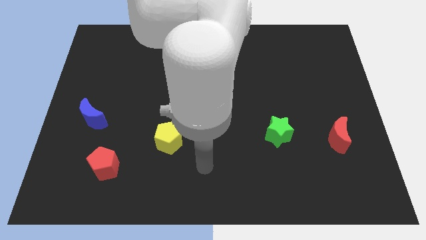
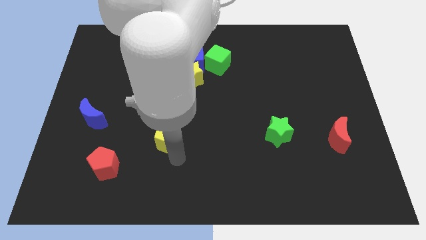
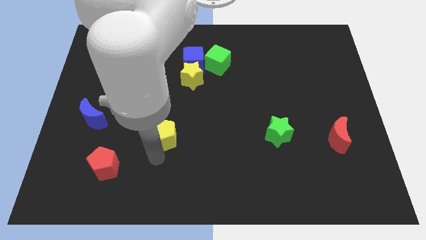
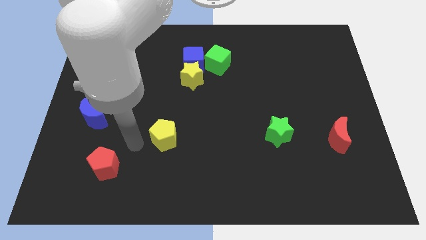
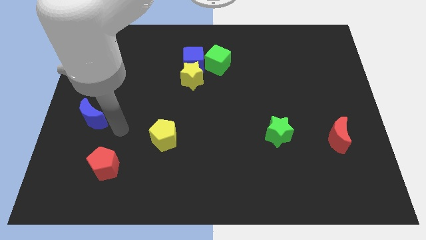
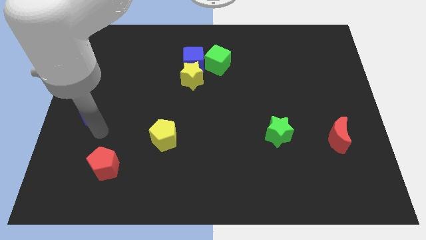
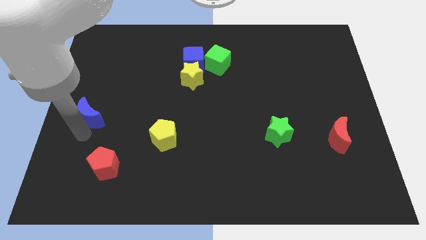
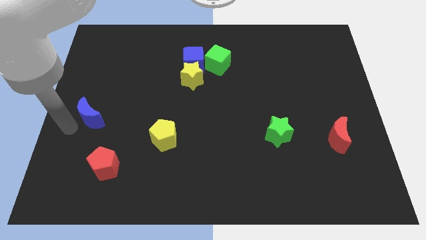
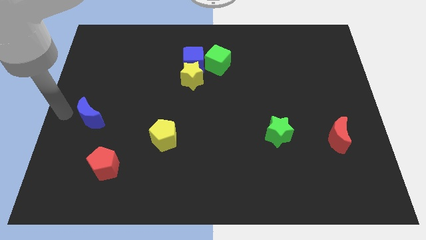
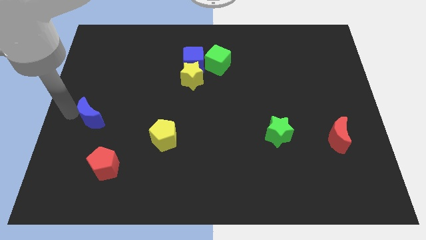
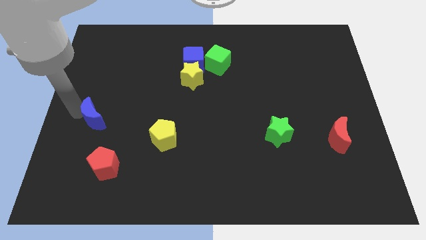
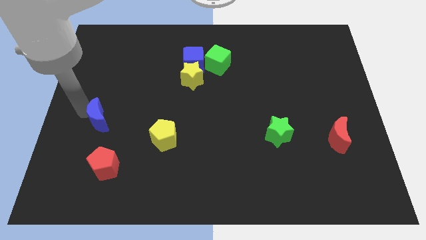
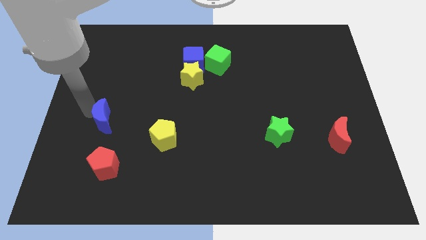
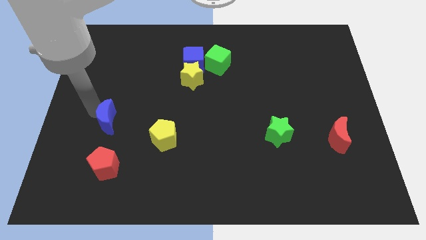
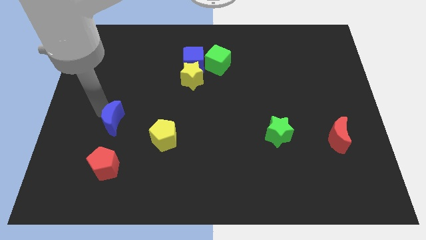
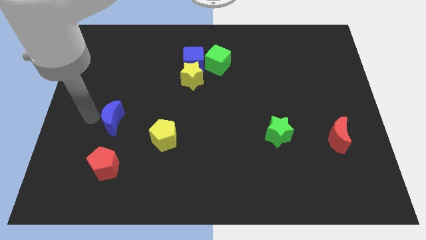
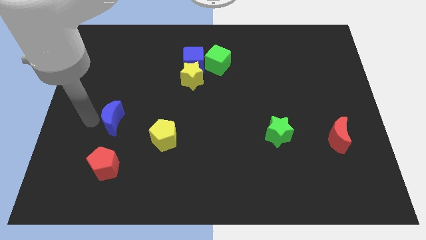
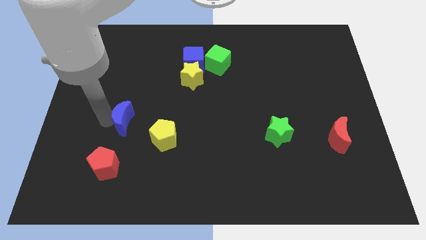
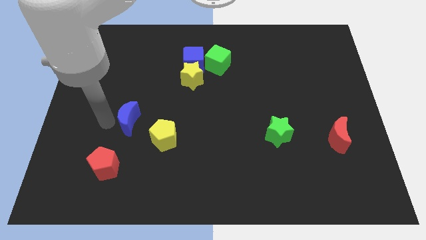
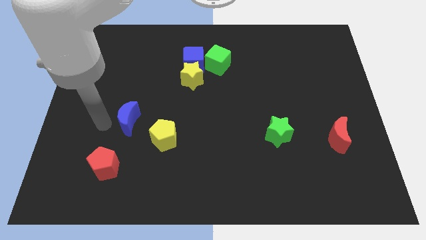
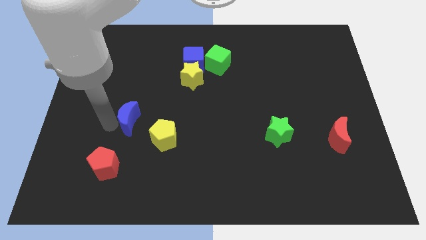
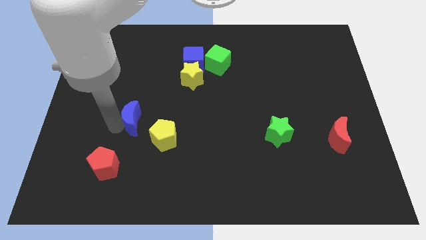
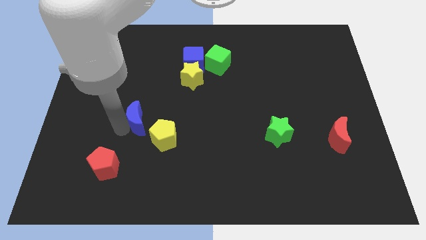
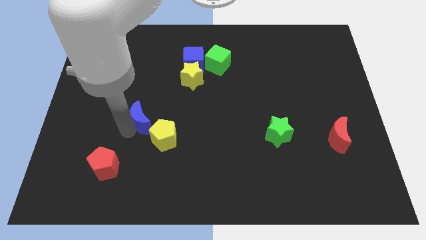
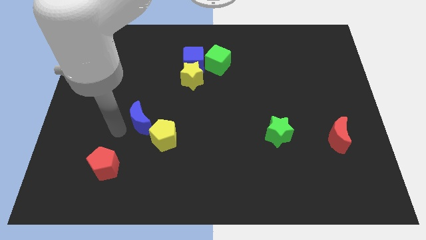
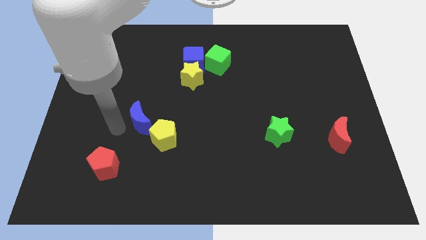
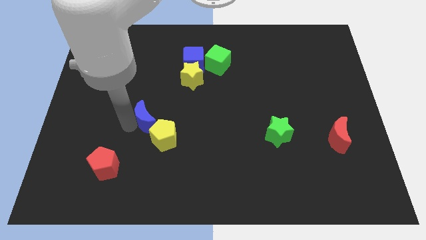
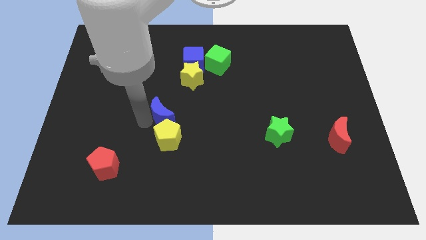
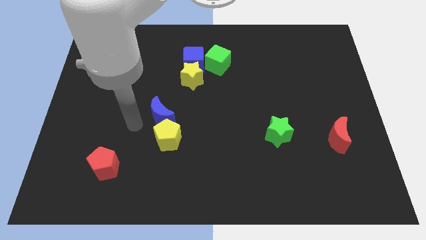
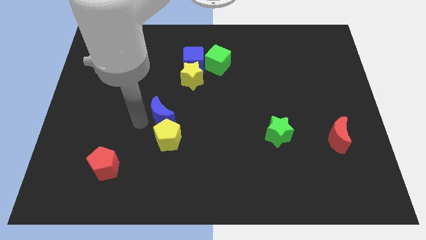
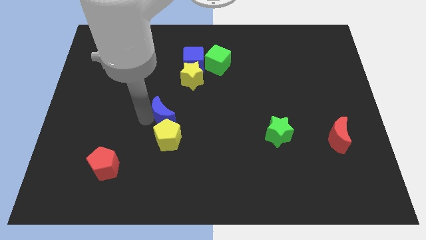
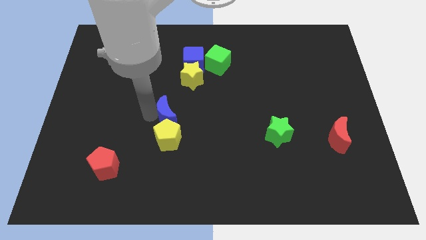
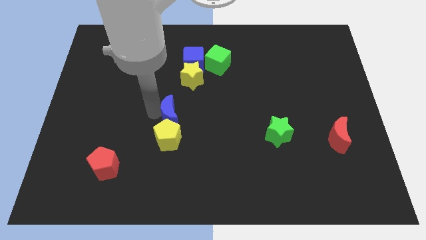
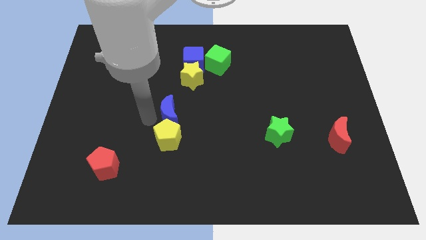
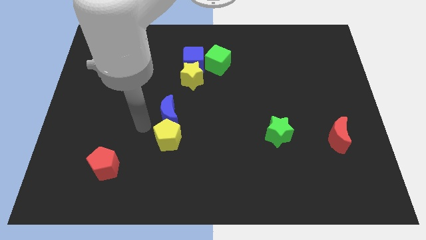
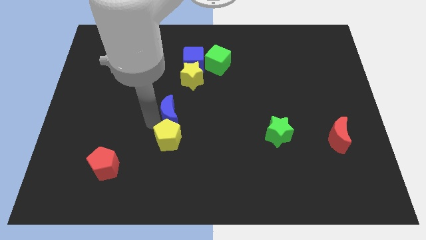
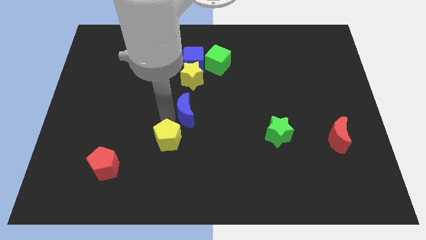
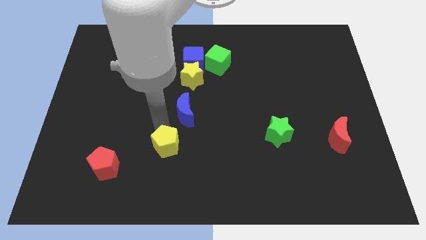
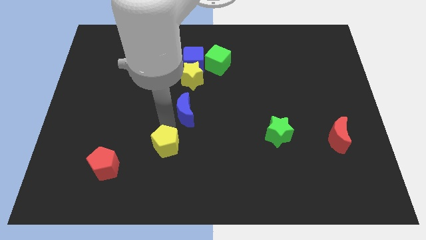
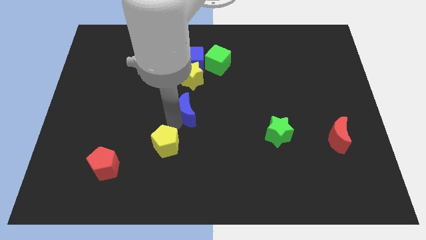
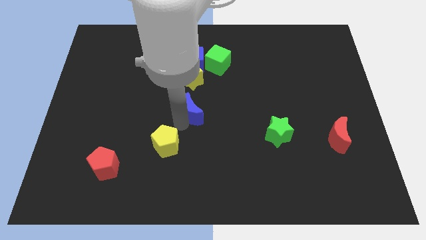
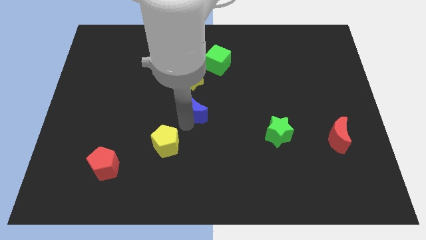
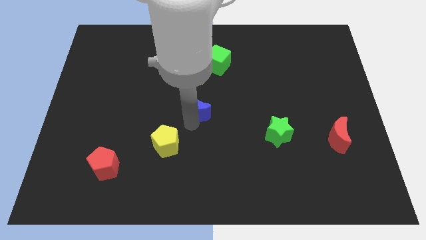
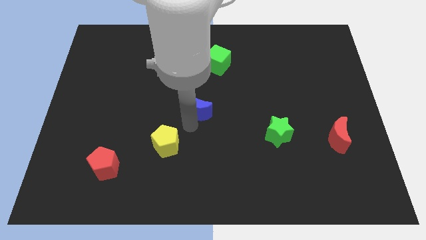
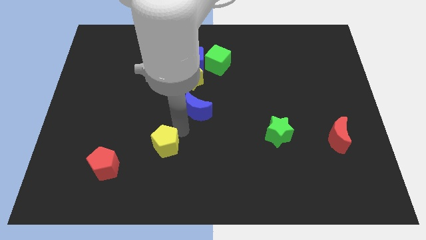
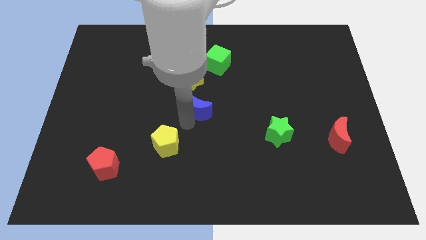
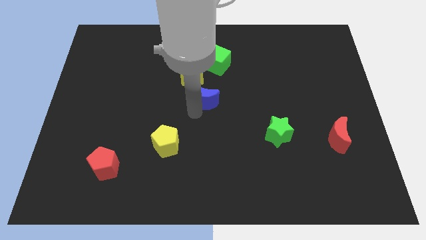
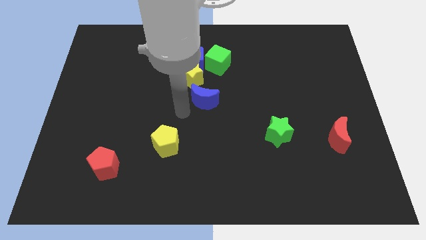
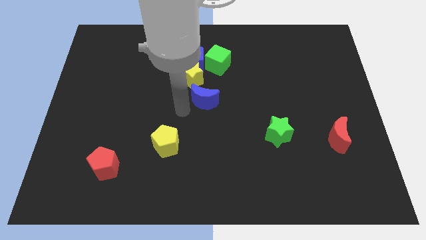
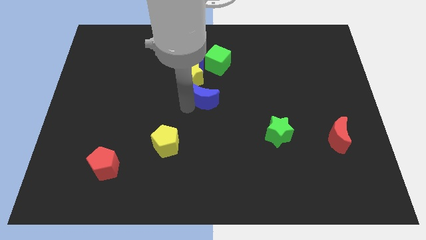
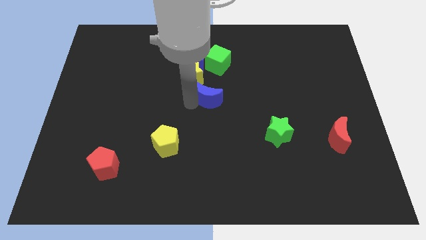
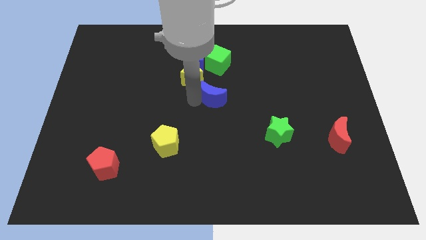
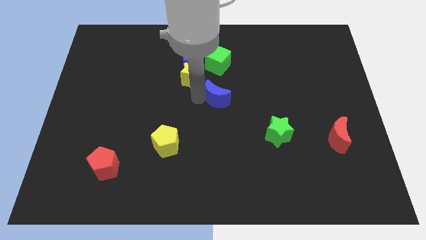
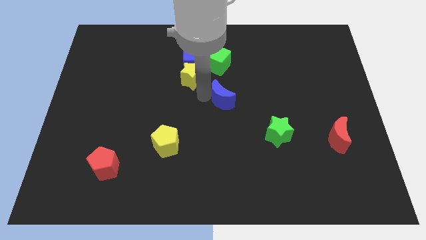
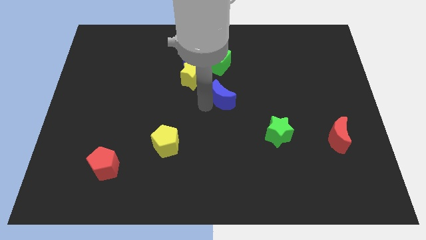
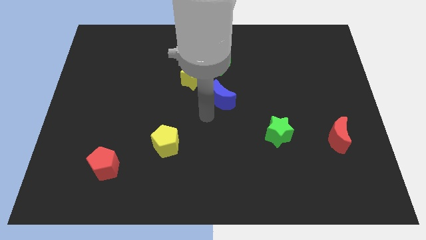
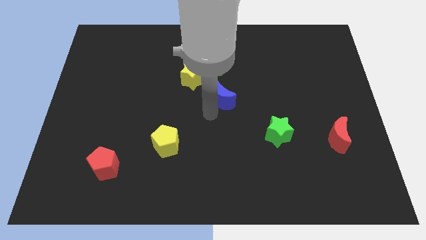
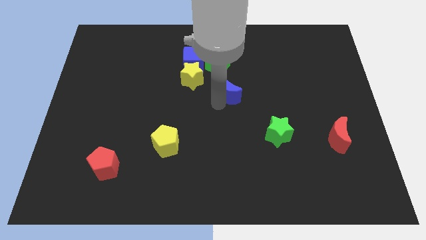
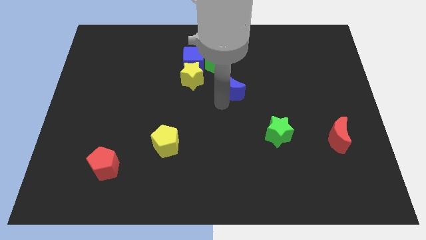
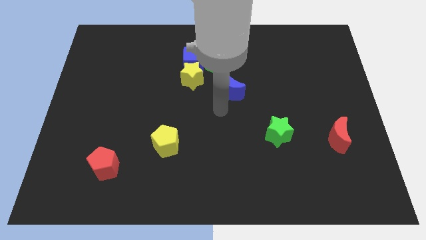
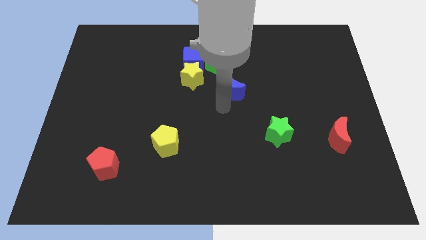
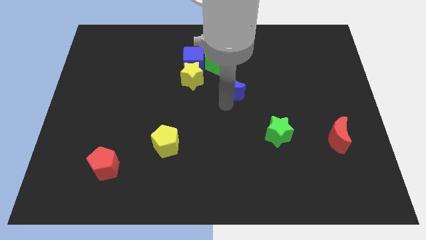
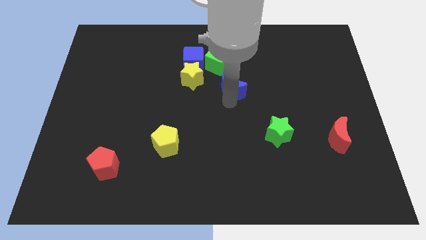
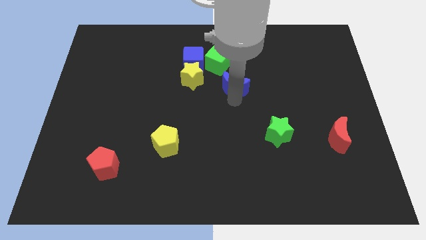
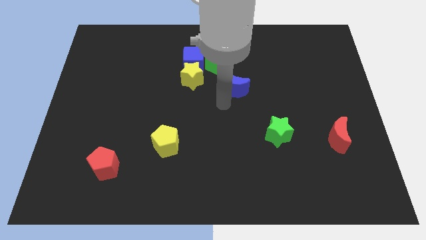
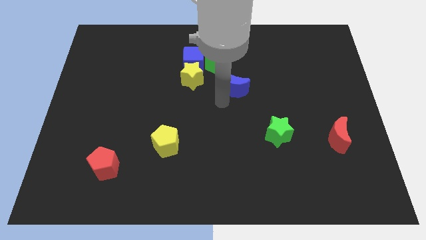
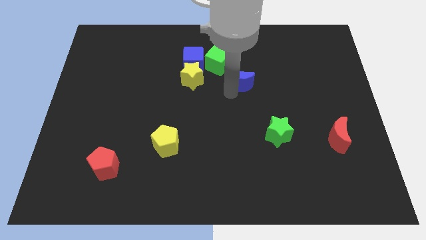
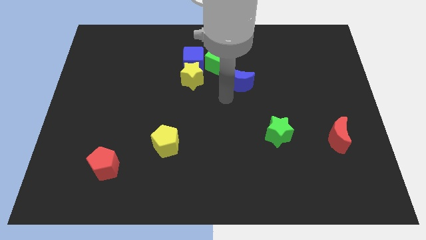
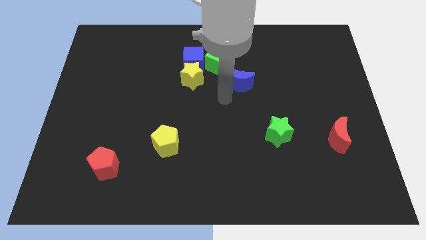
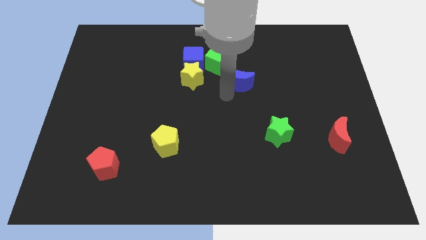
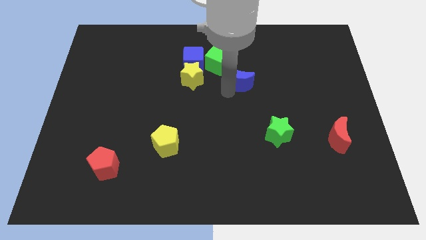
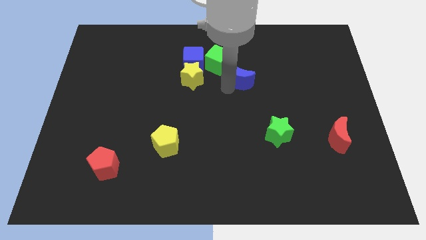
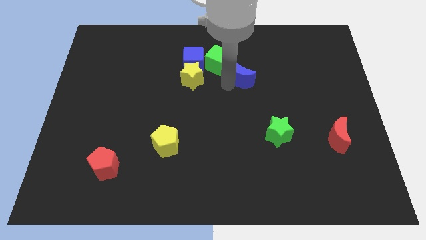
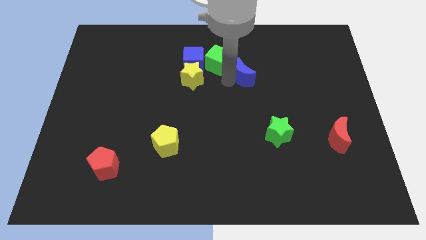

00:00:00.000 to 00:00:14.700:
push the blue moon to the right side of the green cube

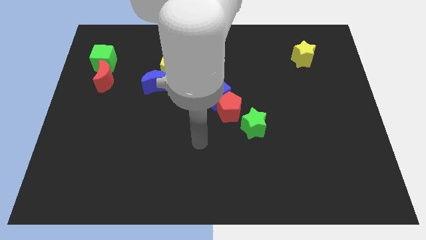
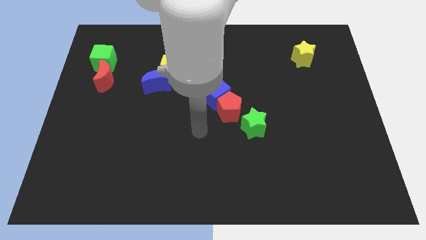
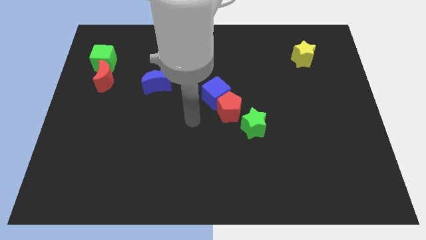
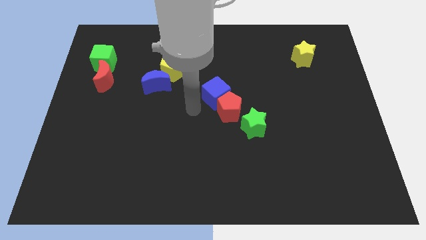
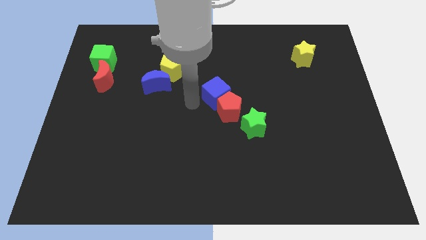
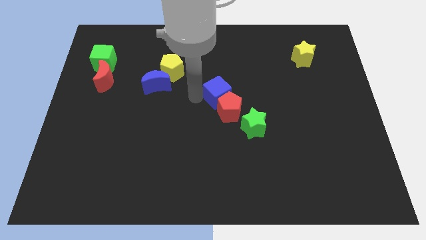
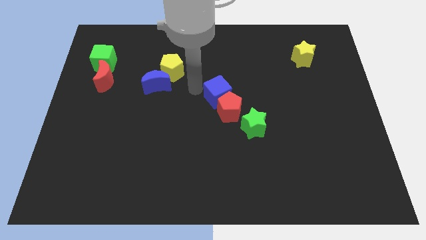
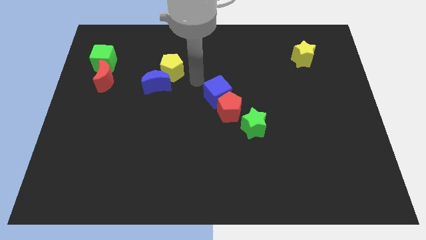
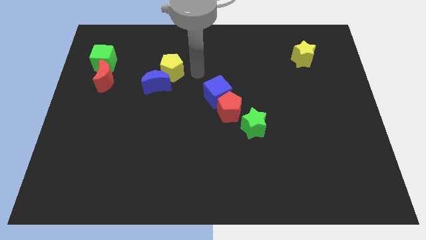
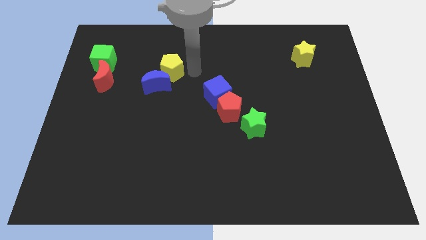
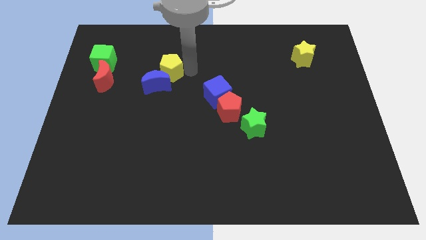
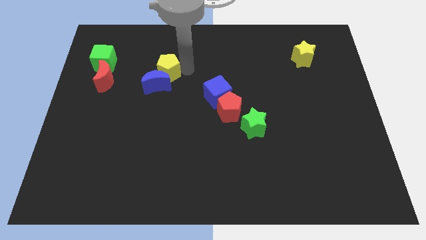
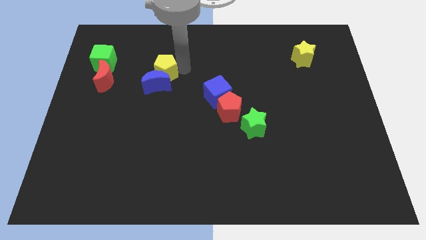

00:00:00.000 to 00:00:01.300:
push the yellow pentagon to the top left of the blue moon
